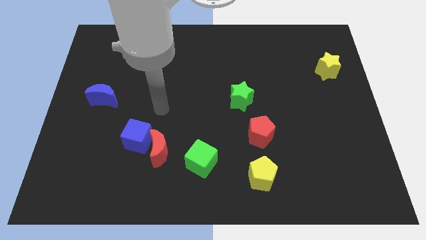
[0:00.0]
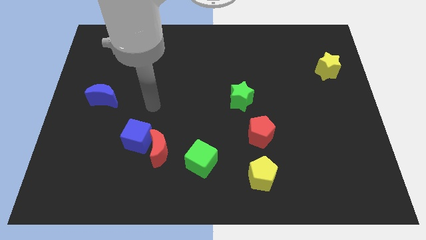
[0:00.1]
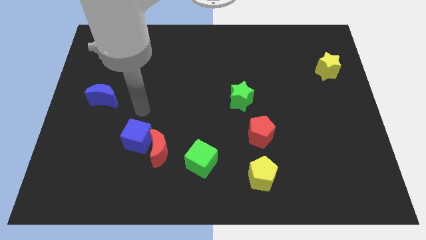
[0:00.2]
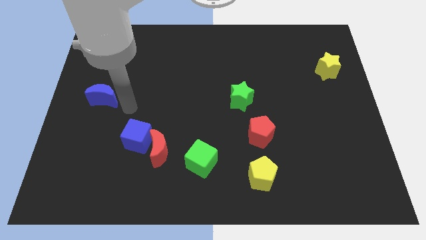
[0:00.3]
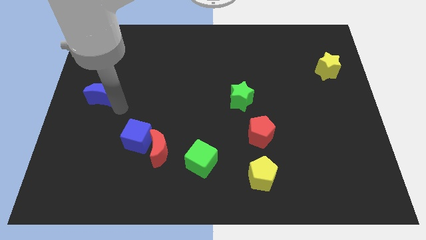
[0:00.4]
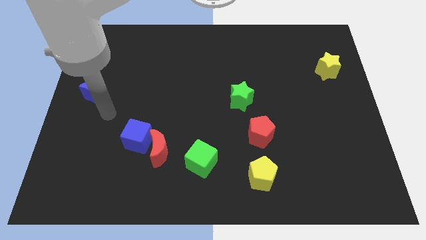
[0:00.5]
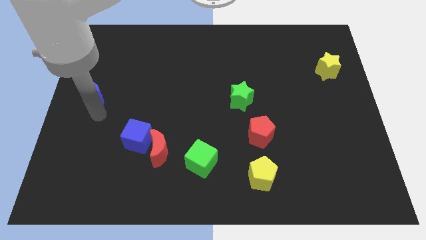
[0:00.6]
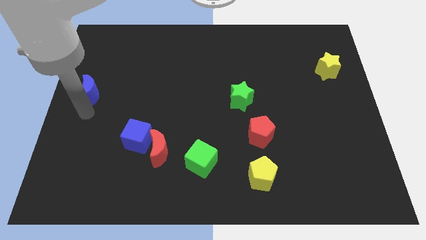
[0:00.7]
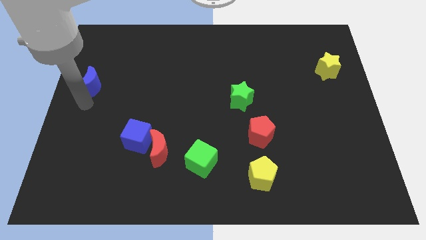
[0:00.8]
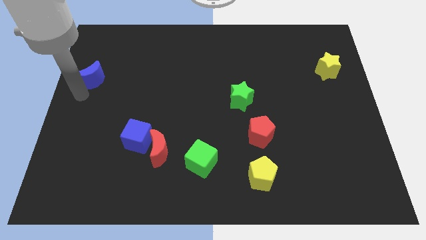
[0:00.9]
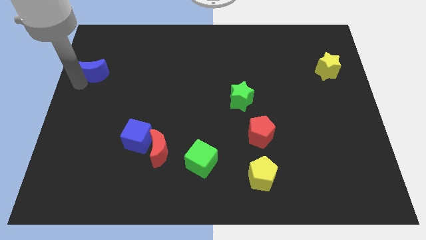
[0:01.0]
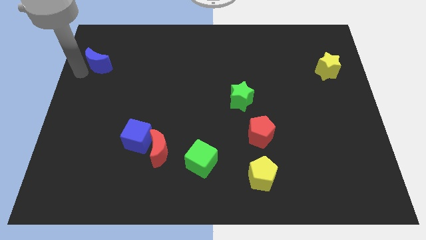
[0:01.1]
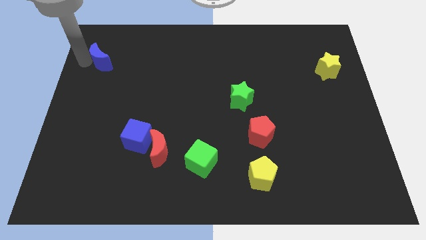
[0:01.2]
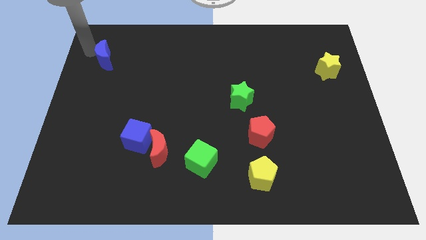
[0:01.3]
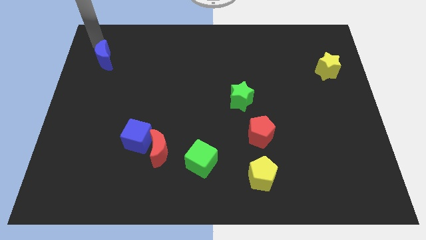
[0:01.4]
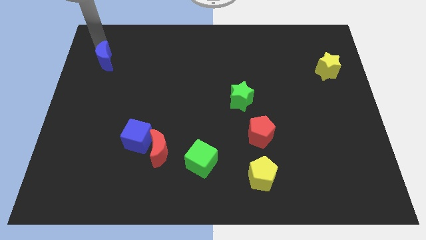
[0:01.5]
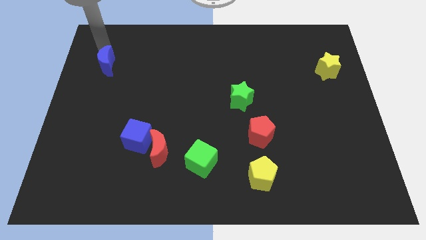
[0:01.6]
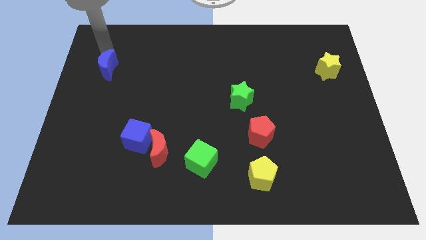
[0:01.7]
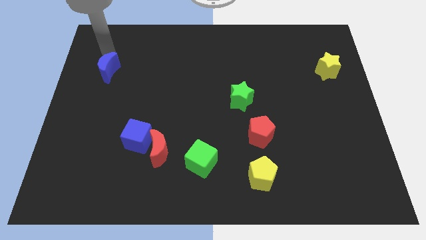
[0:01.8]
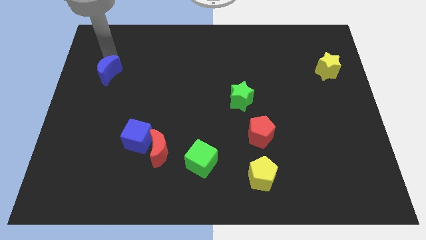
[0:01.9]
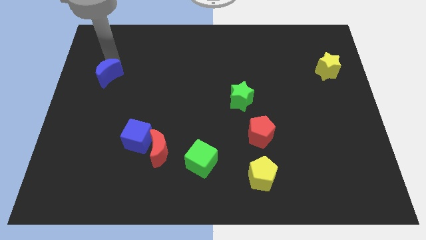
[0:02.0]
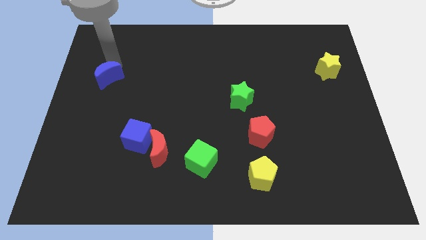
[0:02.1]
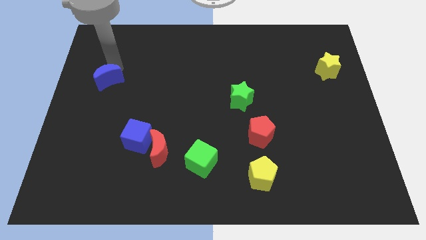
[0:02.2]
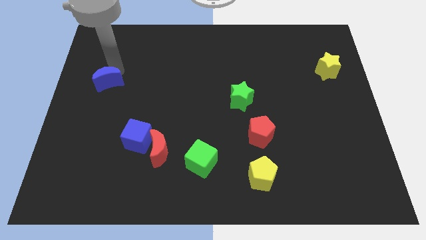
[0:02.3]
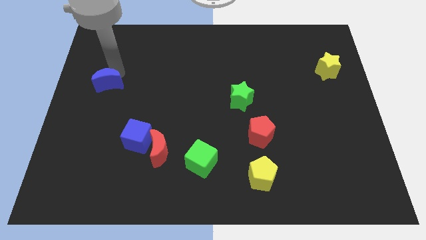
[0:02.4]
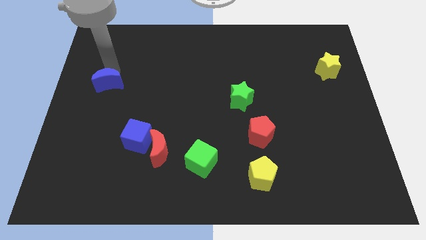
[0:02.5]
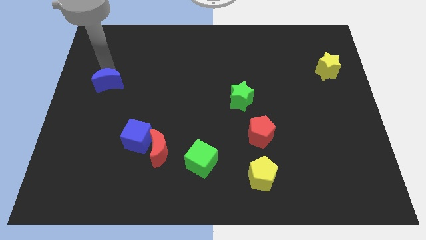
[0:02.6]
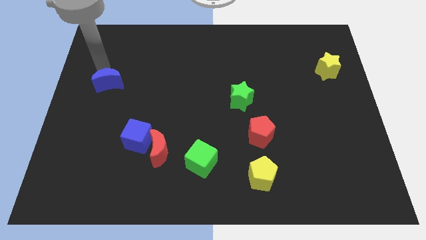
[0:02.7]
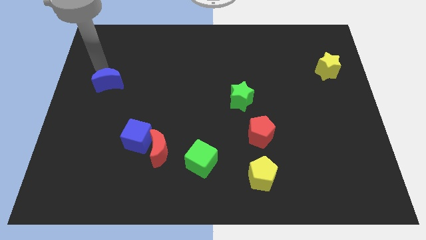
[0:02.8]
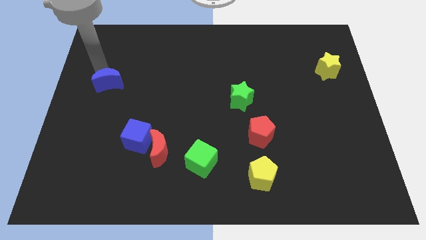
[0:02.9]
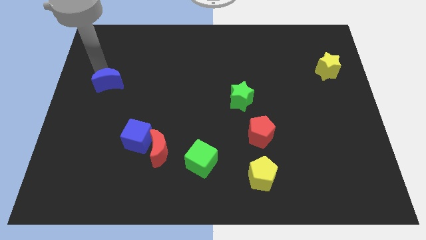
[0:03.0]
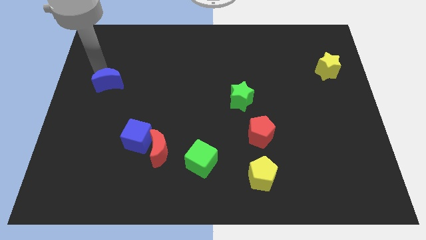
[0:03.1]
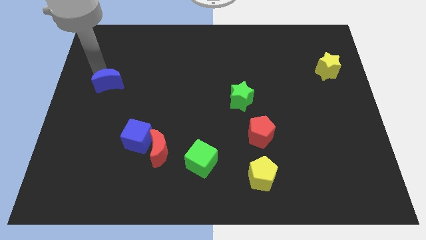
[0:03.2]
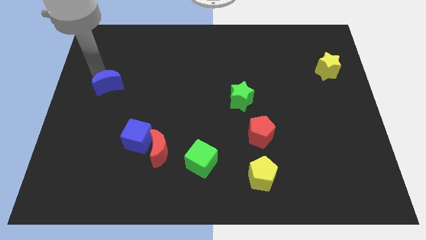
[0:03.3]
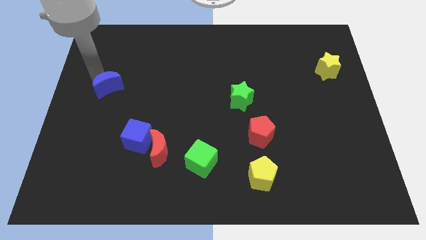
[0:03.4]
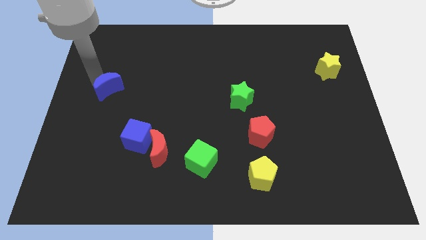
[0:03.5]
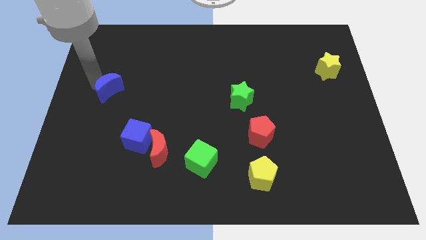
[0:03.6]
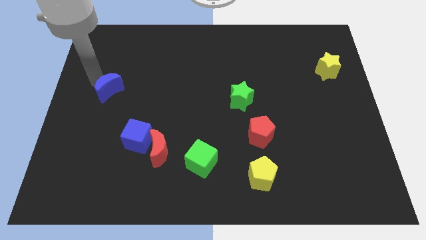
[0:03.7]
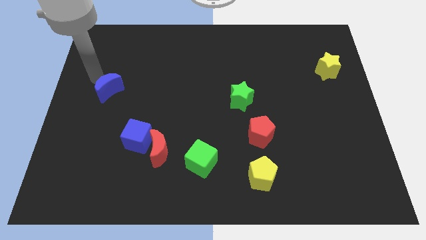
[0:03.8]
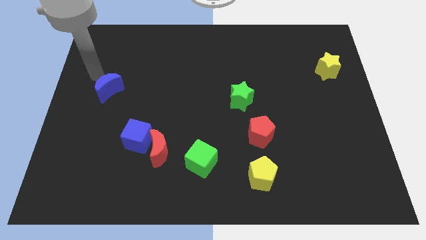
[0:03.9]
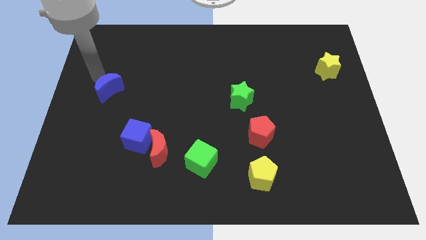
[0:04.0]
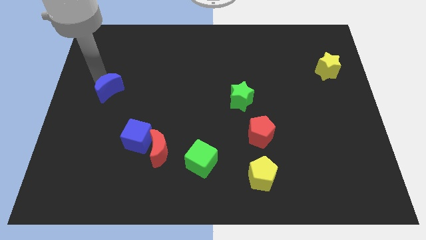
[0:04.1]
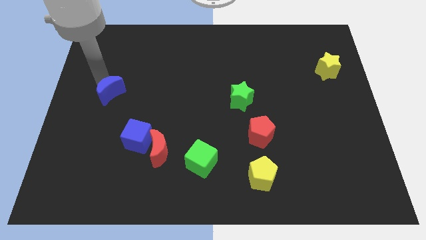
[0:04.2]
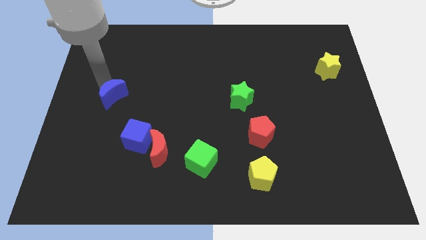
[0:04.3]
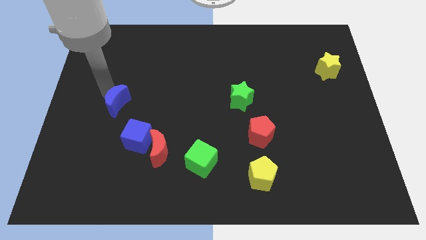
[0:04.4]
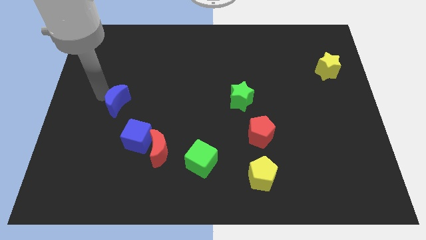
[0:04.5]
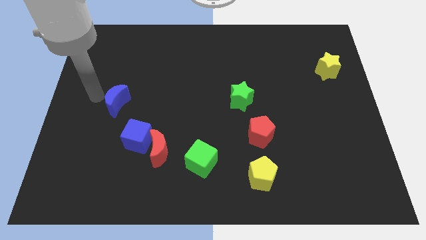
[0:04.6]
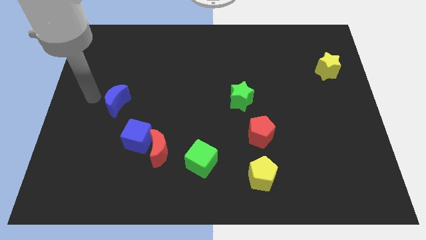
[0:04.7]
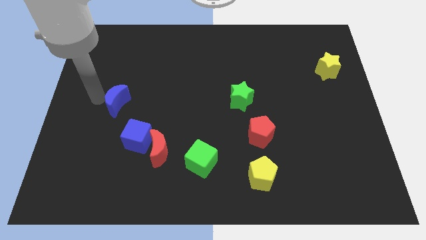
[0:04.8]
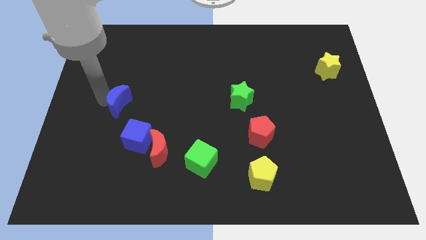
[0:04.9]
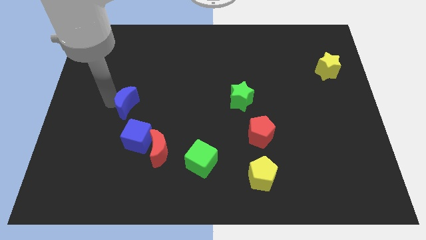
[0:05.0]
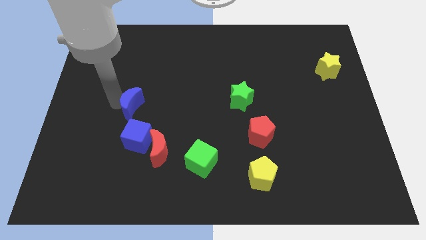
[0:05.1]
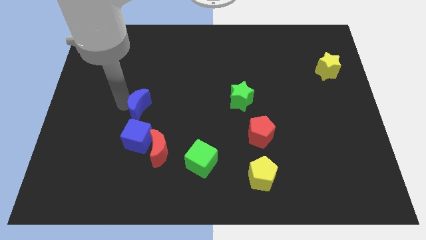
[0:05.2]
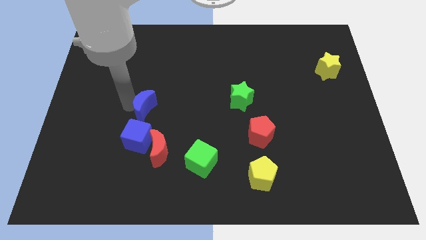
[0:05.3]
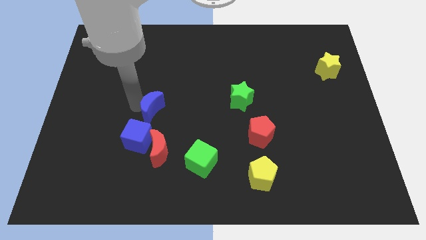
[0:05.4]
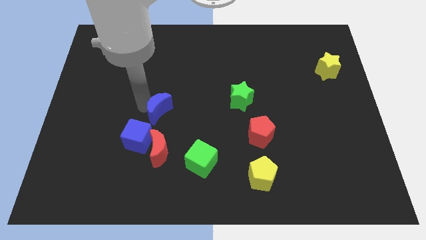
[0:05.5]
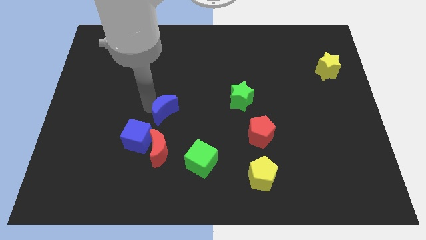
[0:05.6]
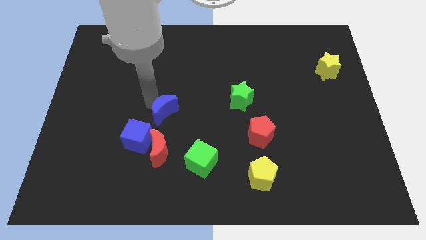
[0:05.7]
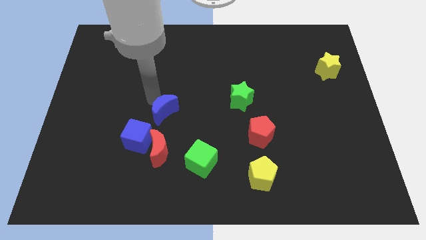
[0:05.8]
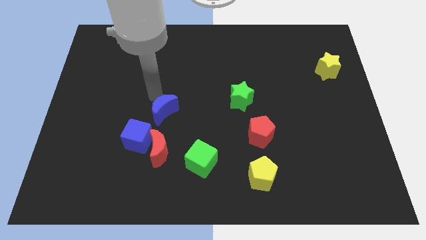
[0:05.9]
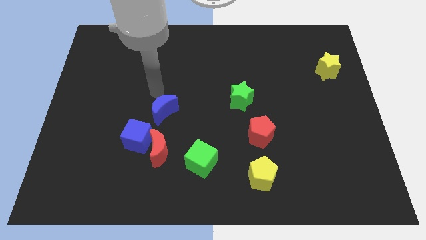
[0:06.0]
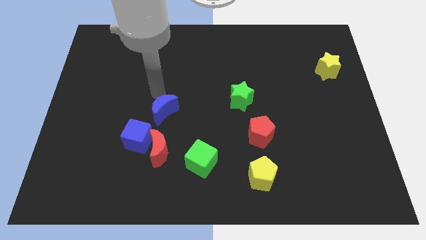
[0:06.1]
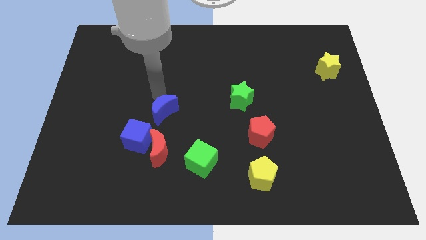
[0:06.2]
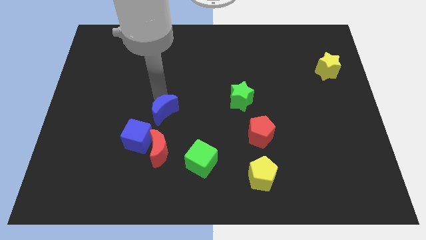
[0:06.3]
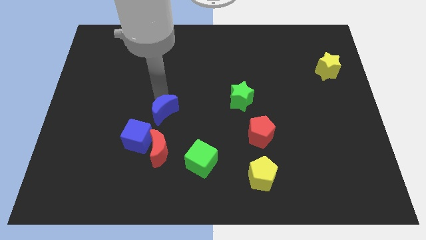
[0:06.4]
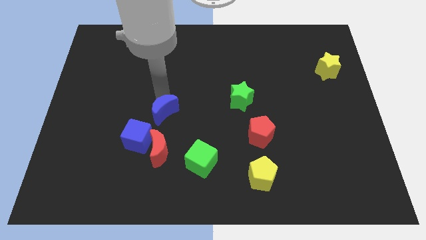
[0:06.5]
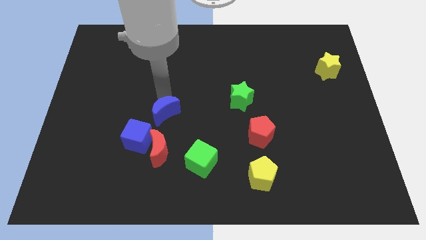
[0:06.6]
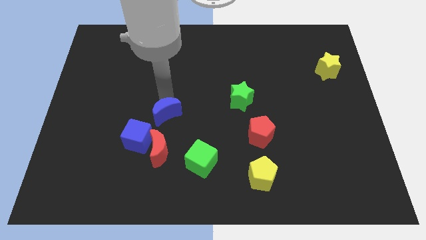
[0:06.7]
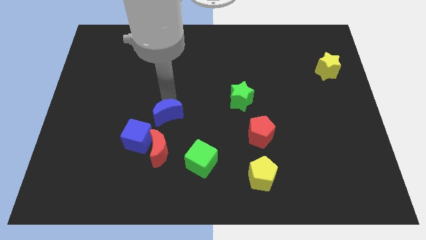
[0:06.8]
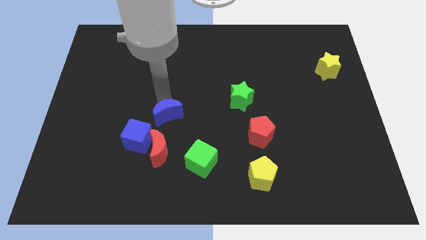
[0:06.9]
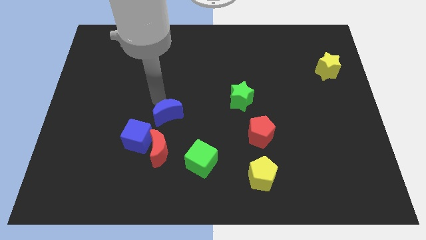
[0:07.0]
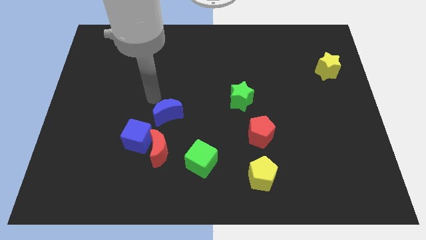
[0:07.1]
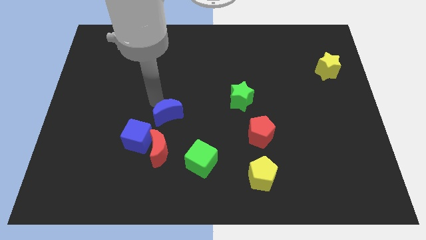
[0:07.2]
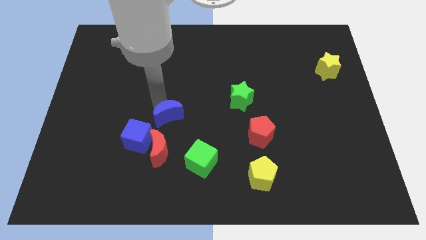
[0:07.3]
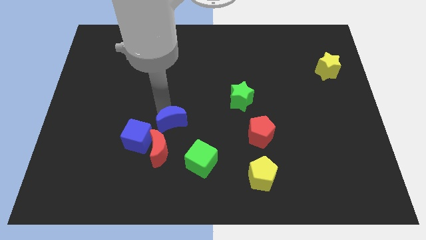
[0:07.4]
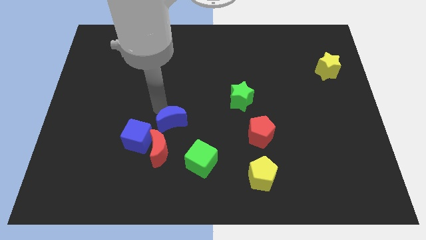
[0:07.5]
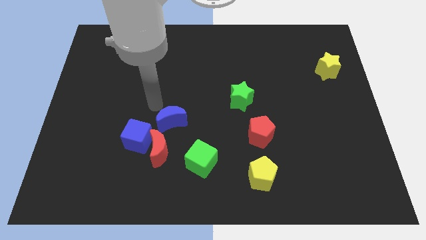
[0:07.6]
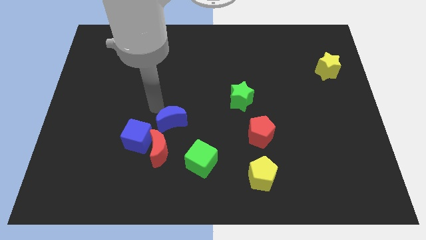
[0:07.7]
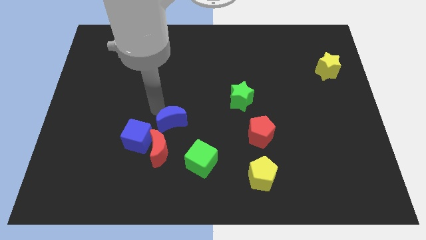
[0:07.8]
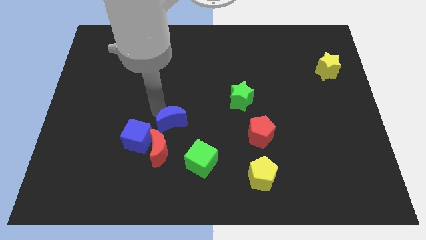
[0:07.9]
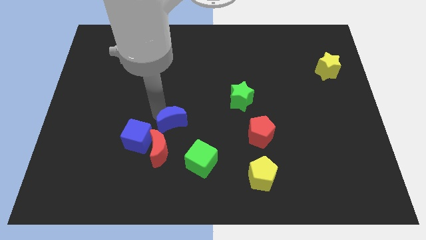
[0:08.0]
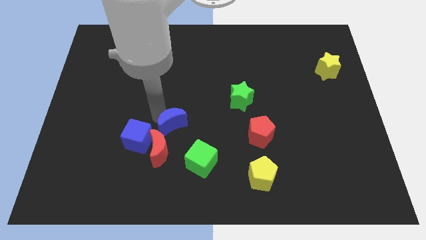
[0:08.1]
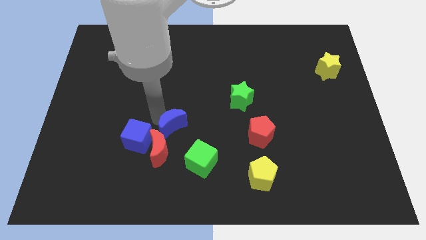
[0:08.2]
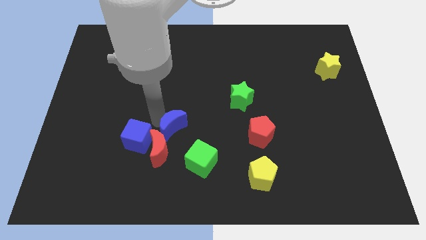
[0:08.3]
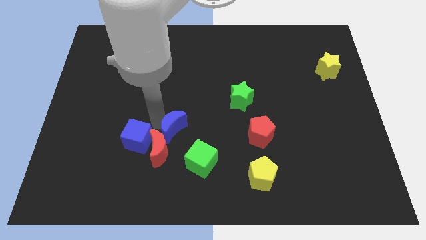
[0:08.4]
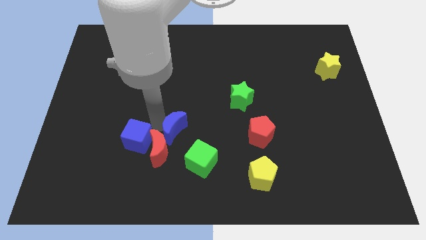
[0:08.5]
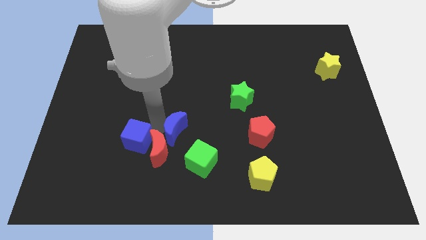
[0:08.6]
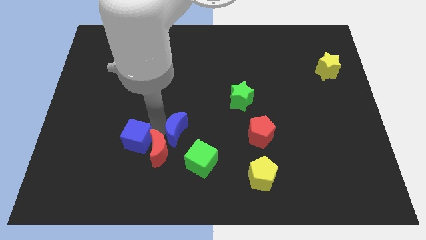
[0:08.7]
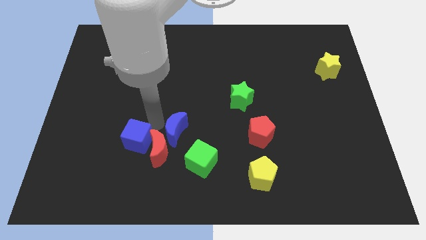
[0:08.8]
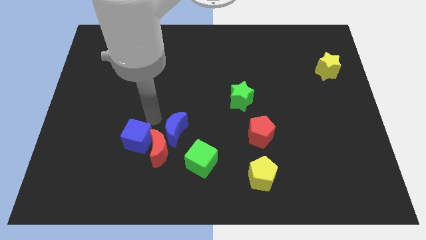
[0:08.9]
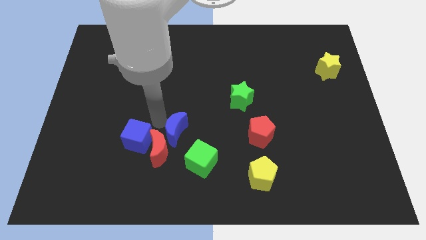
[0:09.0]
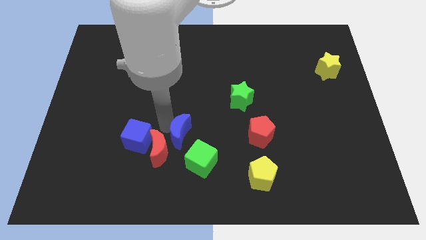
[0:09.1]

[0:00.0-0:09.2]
move the blue moon just right of the red moon
